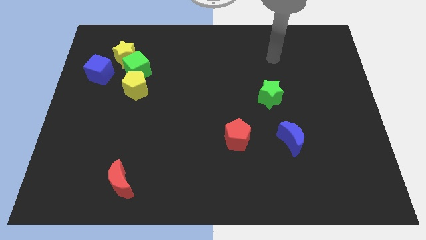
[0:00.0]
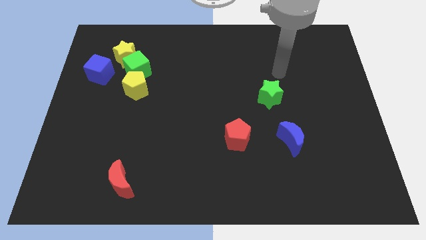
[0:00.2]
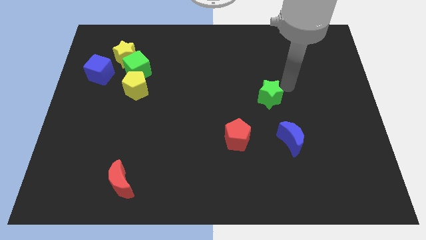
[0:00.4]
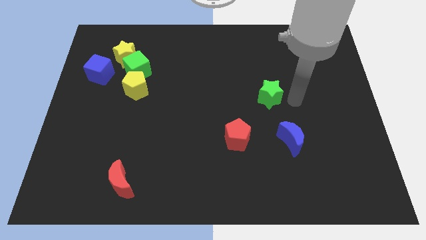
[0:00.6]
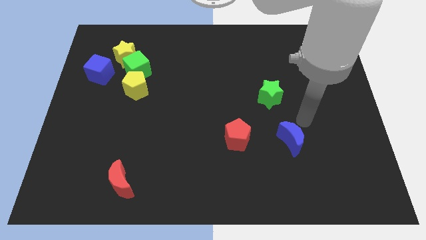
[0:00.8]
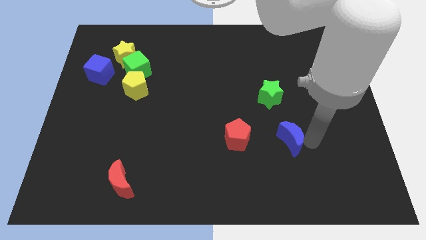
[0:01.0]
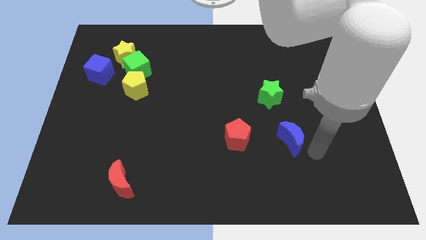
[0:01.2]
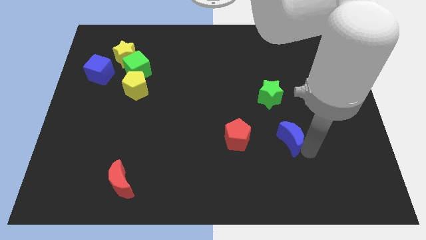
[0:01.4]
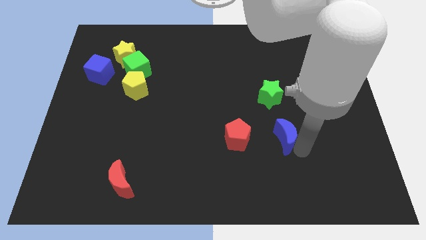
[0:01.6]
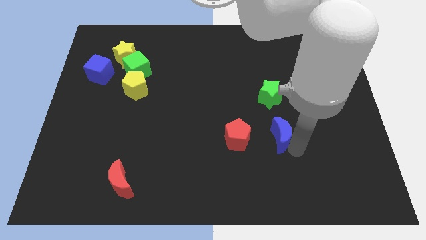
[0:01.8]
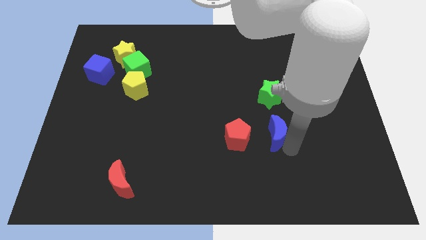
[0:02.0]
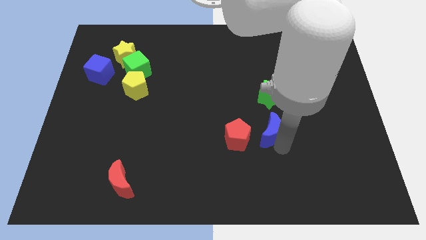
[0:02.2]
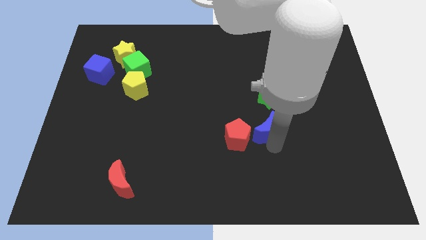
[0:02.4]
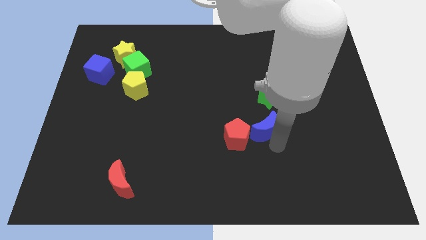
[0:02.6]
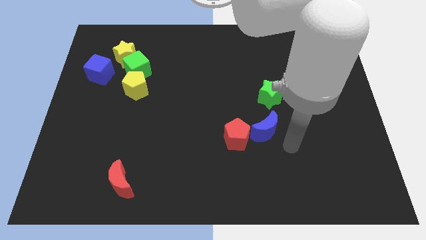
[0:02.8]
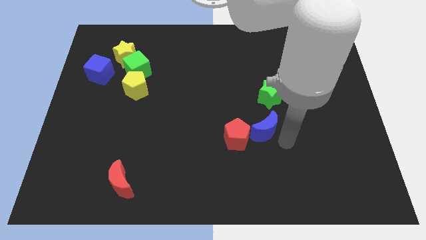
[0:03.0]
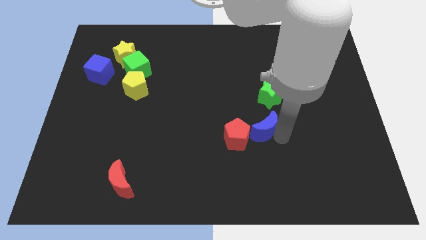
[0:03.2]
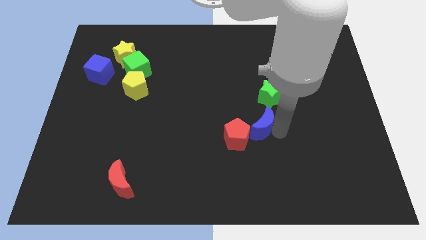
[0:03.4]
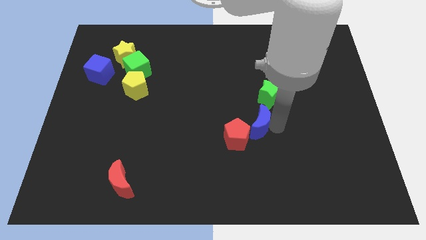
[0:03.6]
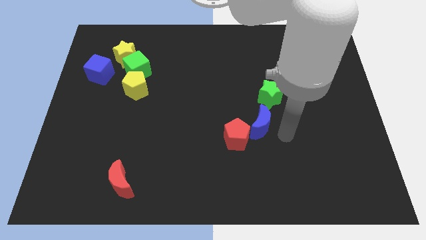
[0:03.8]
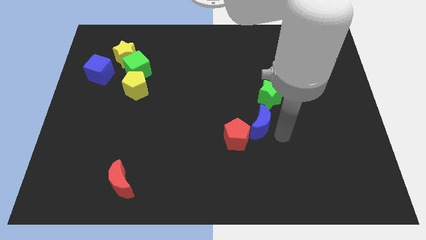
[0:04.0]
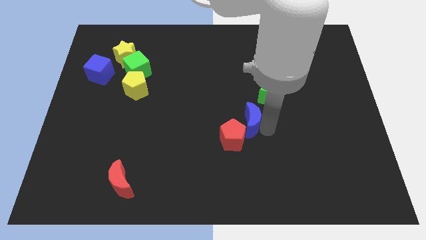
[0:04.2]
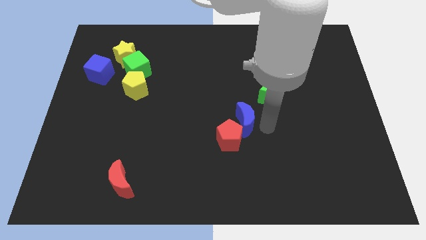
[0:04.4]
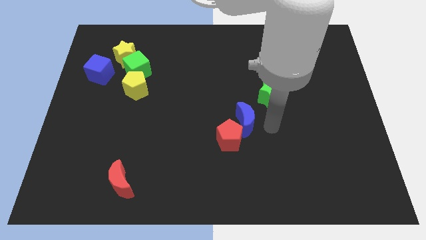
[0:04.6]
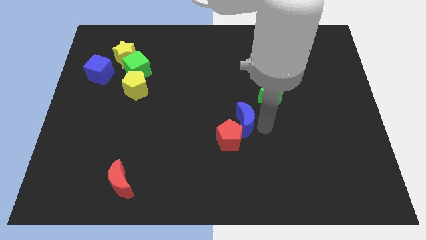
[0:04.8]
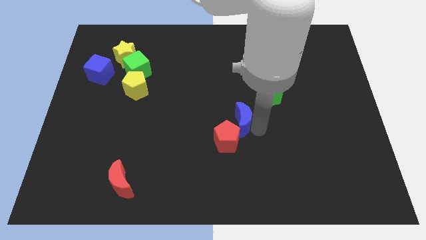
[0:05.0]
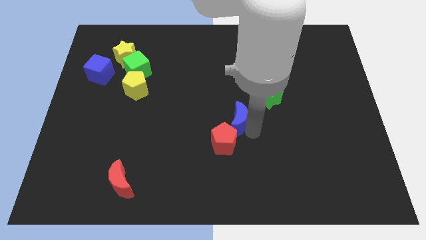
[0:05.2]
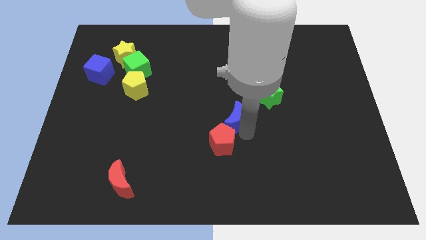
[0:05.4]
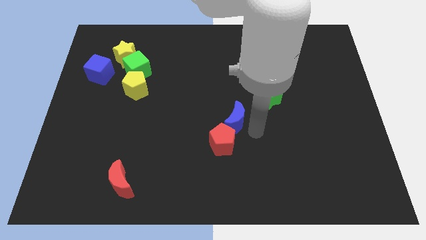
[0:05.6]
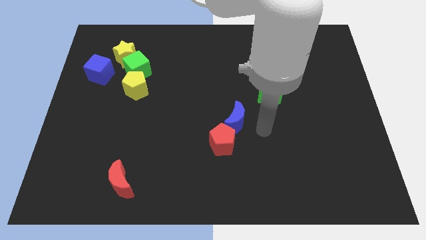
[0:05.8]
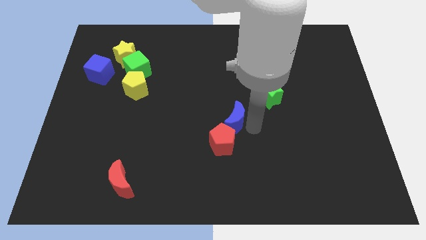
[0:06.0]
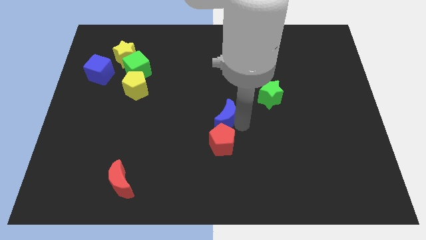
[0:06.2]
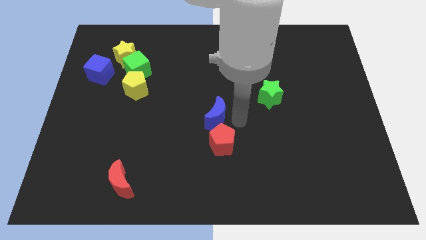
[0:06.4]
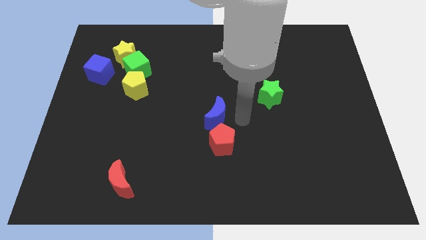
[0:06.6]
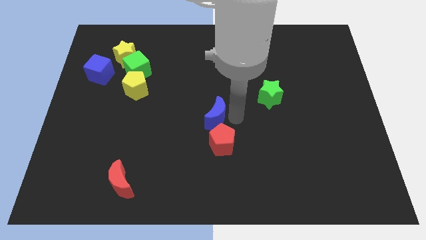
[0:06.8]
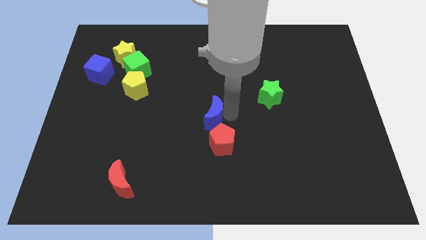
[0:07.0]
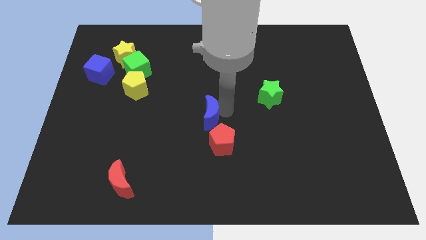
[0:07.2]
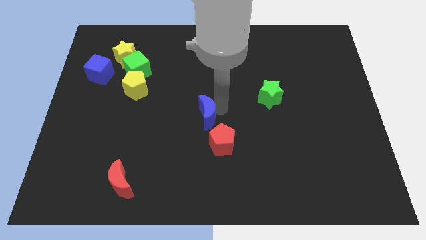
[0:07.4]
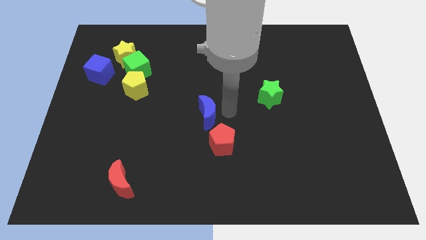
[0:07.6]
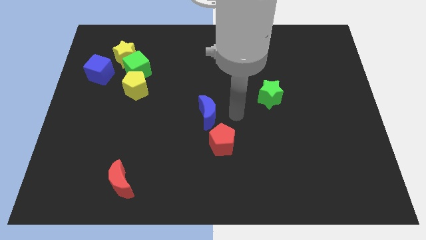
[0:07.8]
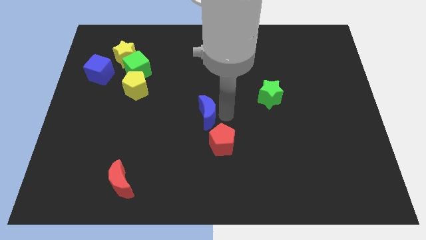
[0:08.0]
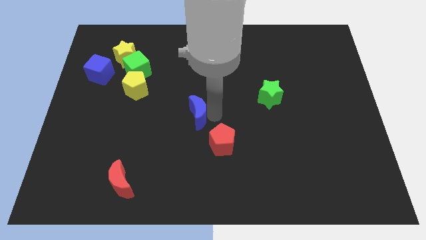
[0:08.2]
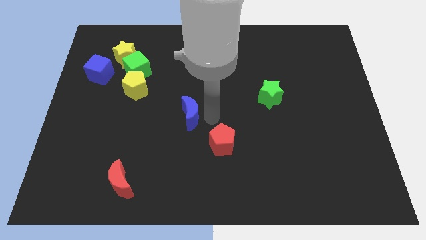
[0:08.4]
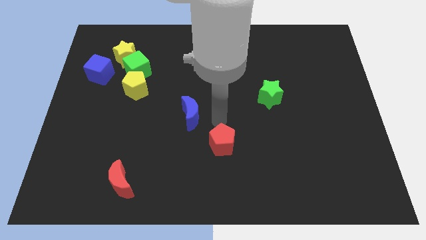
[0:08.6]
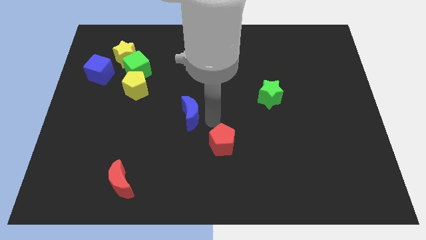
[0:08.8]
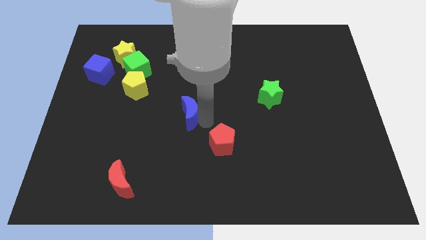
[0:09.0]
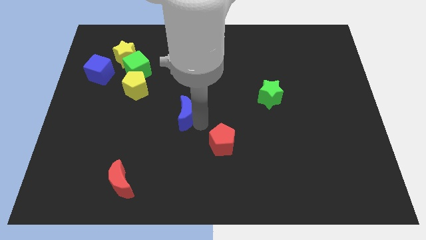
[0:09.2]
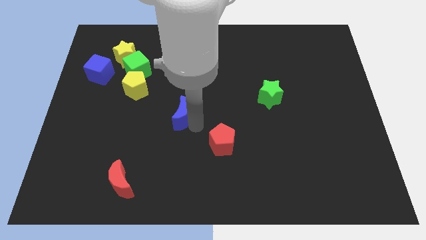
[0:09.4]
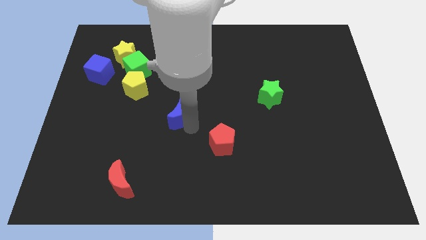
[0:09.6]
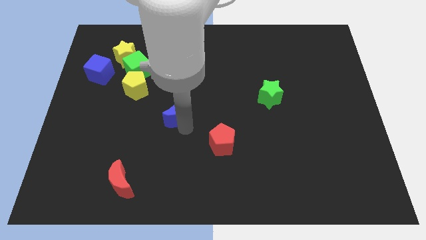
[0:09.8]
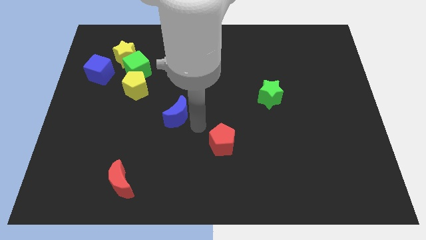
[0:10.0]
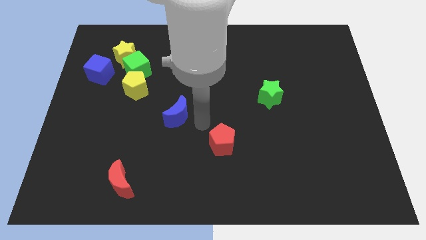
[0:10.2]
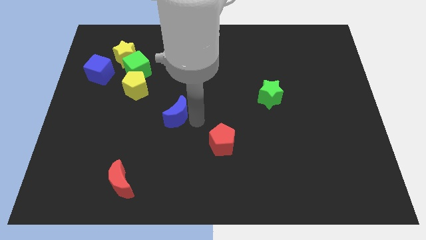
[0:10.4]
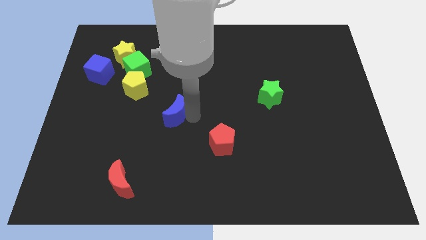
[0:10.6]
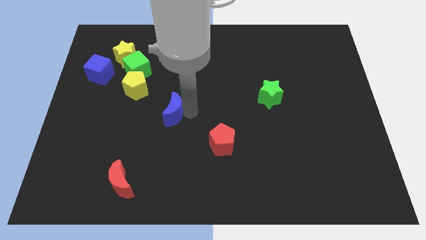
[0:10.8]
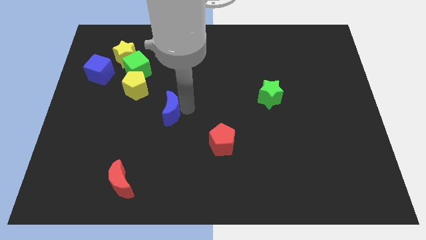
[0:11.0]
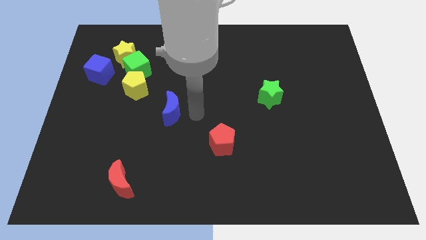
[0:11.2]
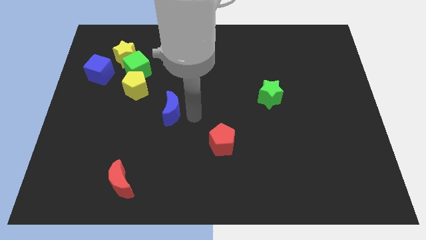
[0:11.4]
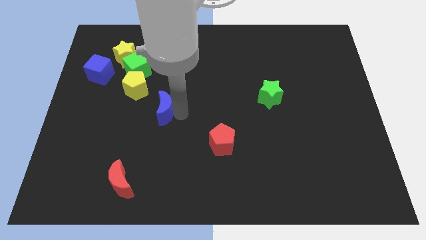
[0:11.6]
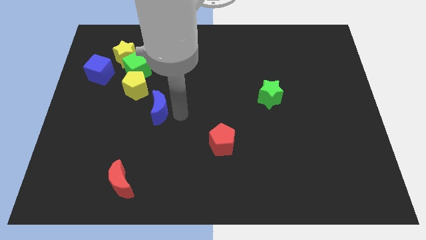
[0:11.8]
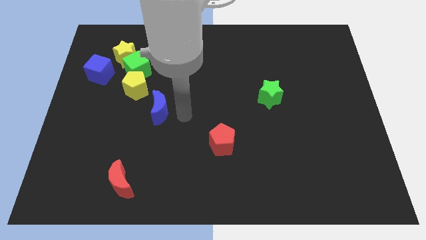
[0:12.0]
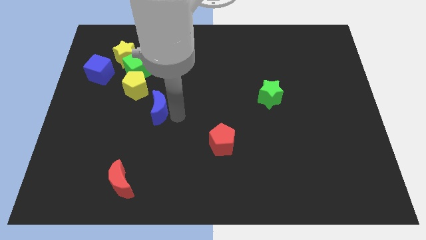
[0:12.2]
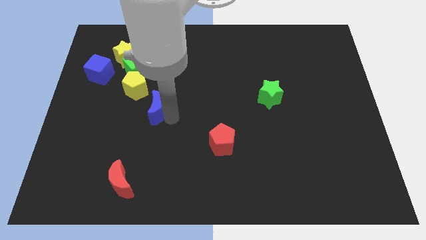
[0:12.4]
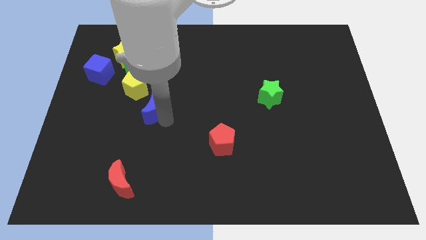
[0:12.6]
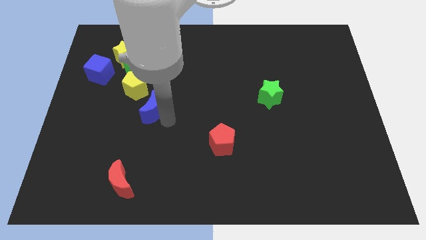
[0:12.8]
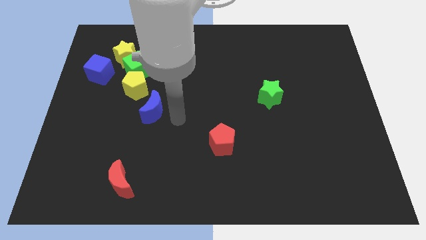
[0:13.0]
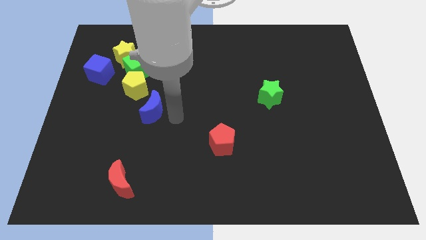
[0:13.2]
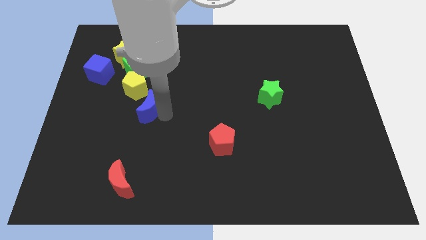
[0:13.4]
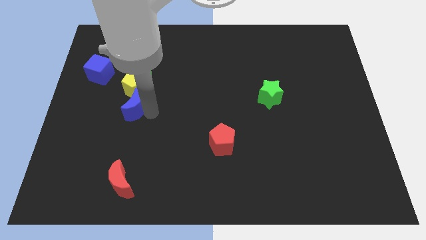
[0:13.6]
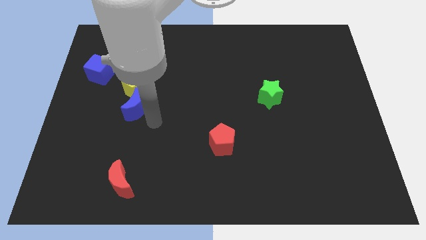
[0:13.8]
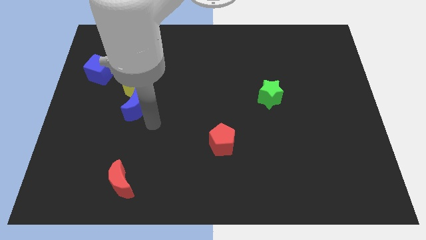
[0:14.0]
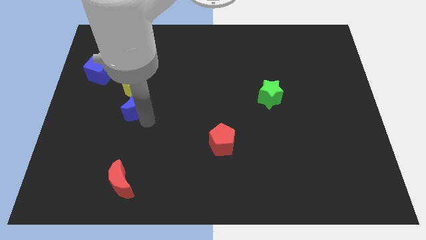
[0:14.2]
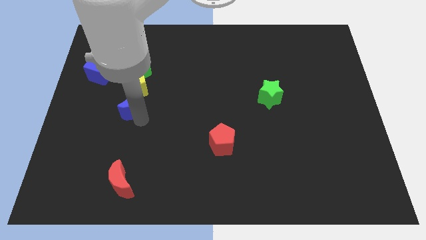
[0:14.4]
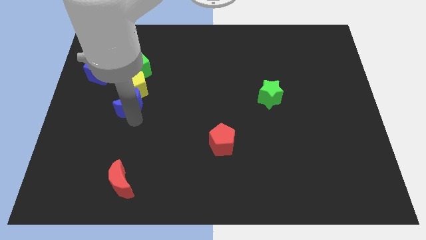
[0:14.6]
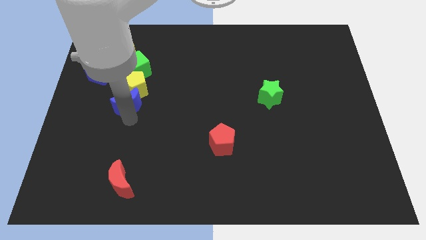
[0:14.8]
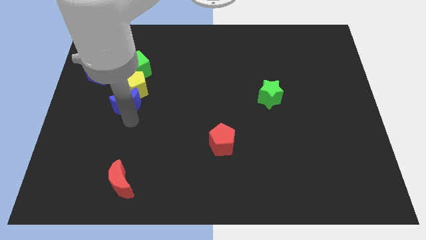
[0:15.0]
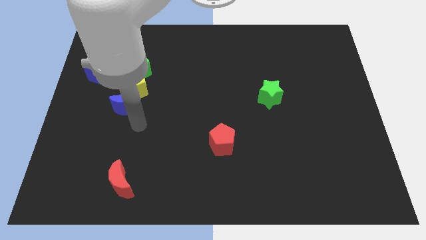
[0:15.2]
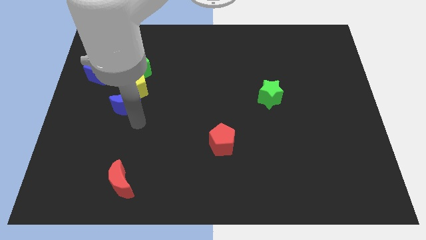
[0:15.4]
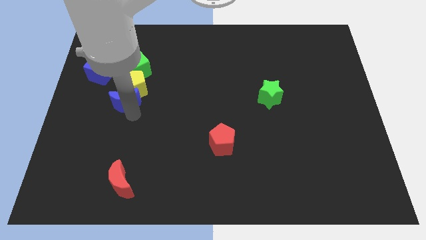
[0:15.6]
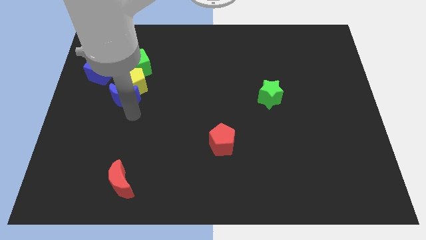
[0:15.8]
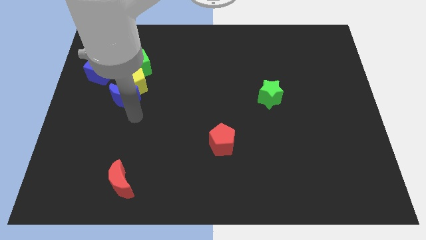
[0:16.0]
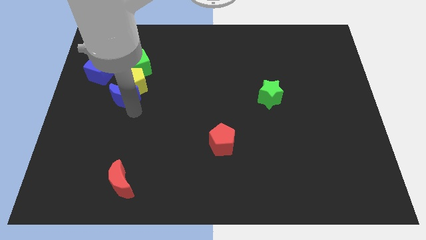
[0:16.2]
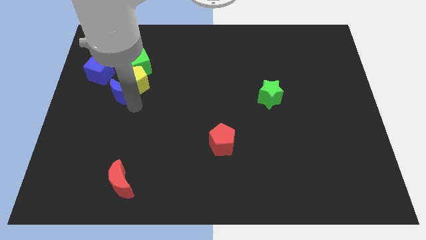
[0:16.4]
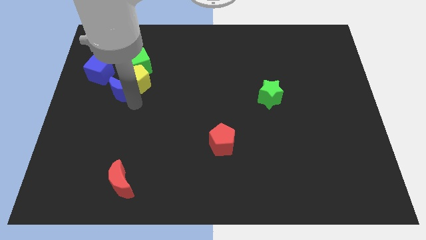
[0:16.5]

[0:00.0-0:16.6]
slide the blue moon to the bottom left of the green cube
